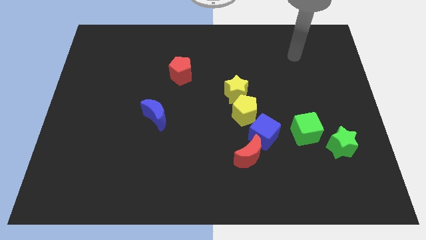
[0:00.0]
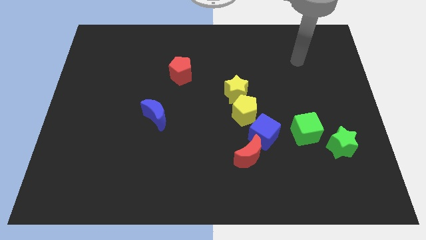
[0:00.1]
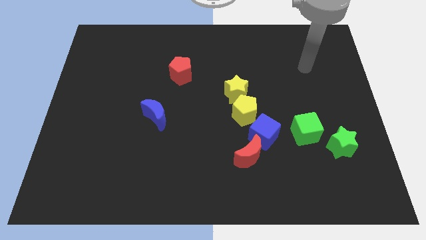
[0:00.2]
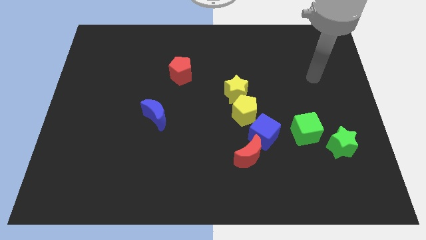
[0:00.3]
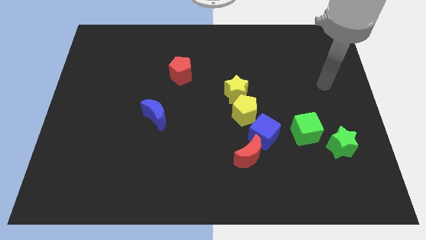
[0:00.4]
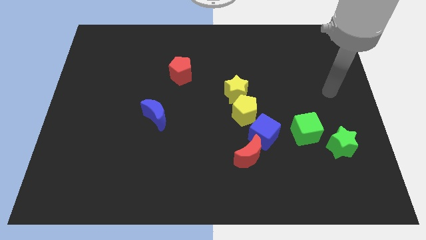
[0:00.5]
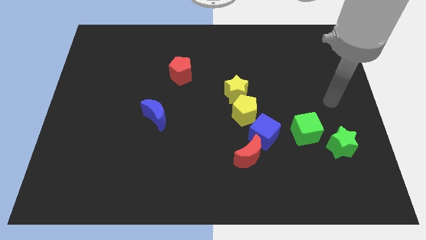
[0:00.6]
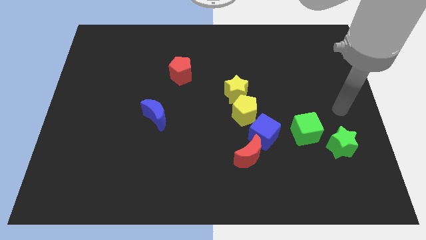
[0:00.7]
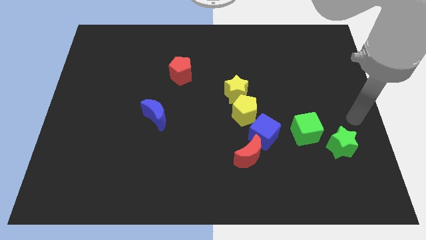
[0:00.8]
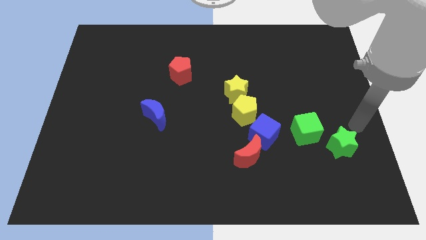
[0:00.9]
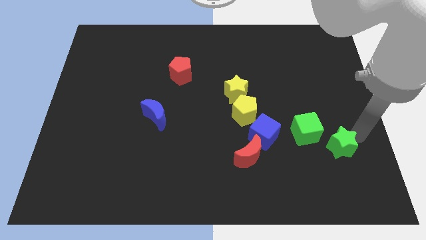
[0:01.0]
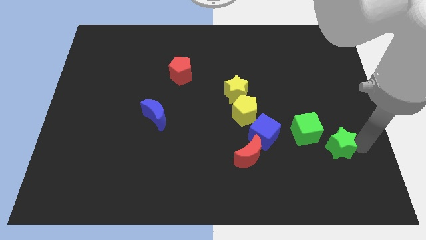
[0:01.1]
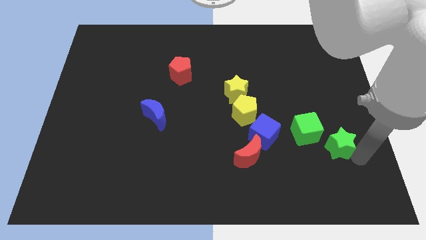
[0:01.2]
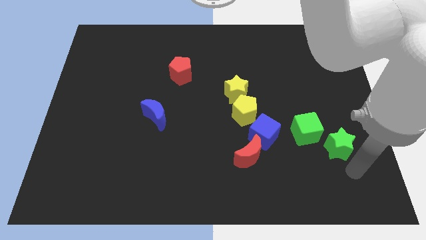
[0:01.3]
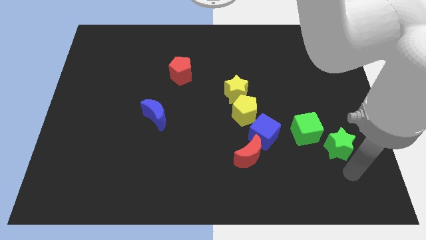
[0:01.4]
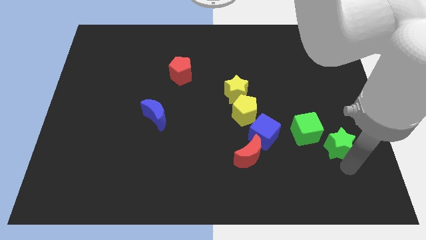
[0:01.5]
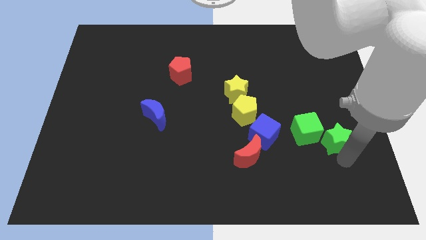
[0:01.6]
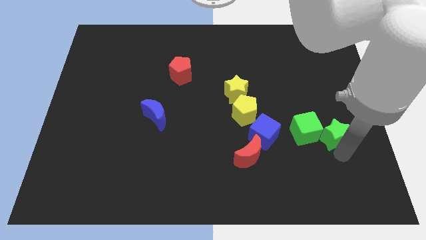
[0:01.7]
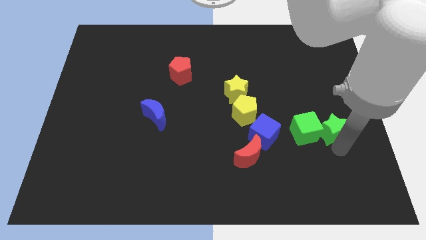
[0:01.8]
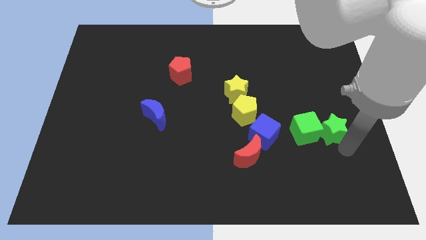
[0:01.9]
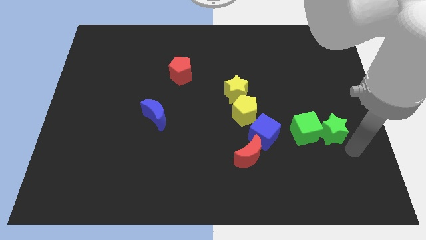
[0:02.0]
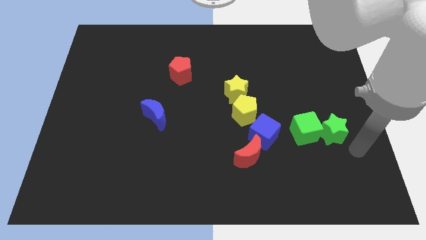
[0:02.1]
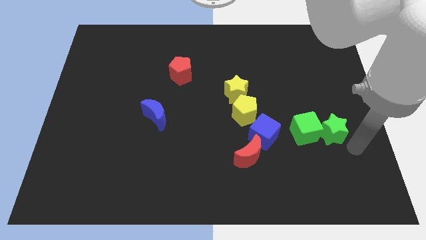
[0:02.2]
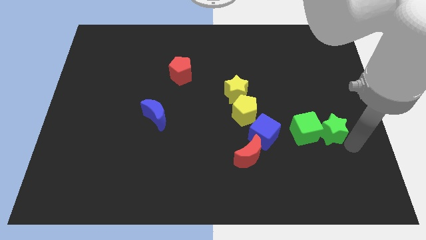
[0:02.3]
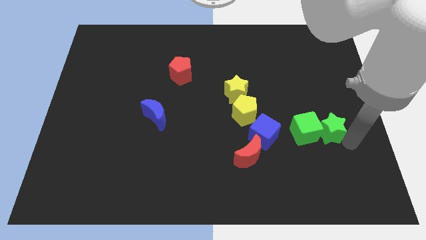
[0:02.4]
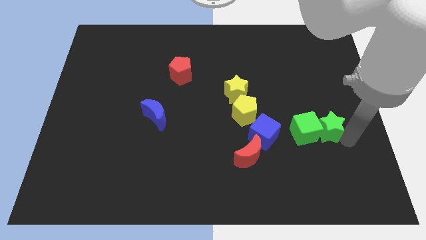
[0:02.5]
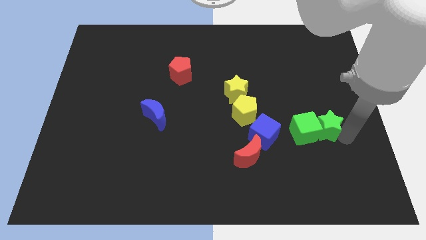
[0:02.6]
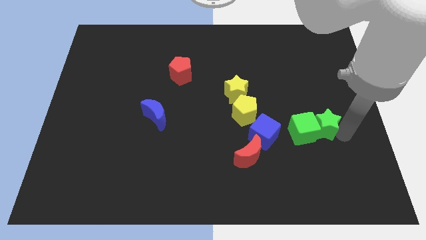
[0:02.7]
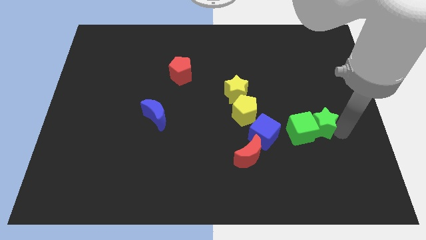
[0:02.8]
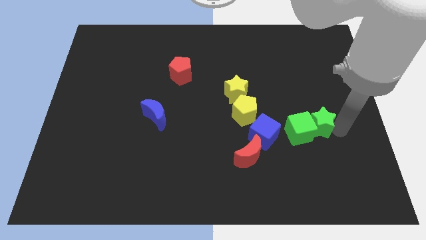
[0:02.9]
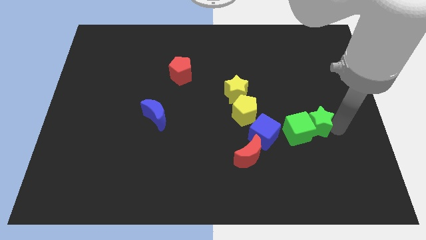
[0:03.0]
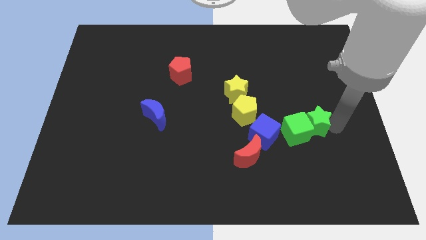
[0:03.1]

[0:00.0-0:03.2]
push the green star a little diagonally upwards and to the left

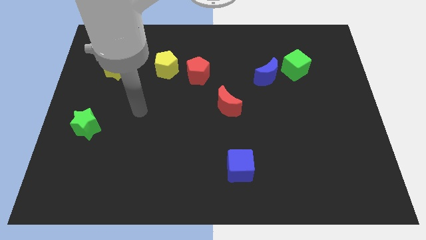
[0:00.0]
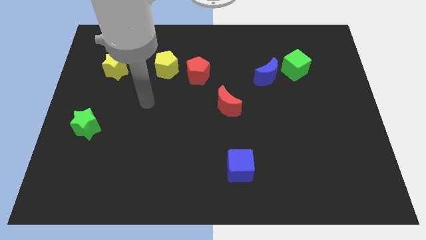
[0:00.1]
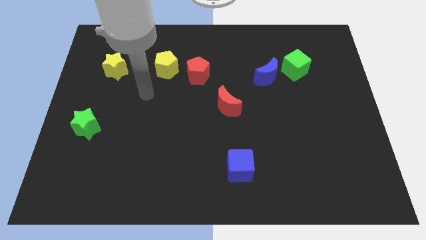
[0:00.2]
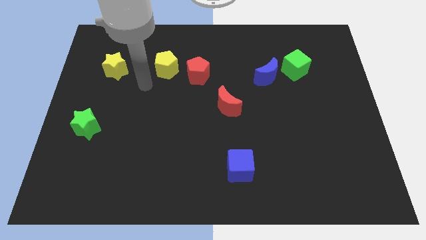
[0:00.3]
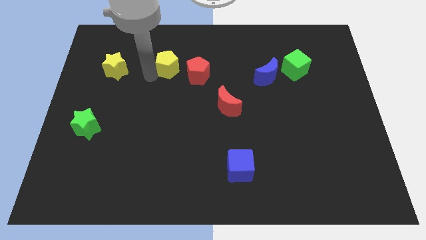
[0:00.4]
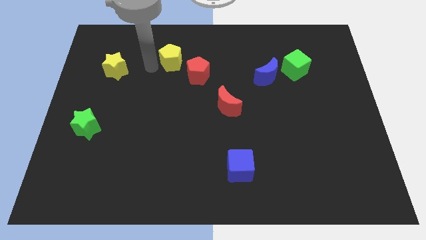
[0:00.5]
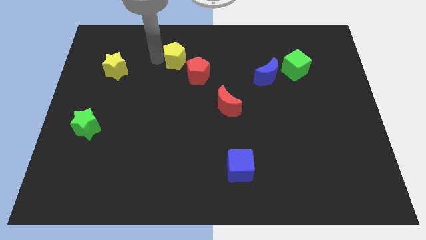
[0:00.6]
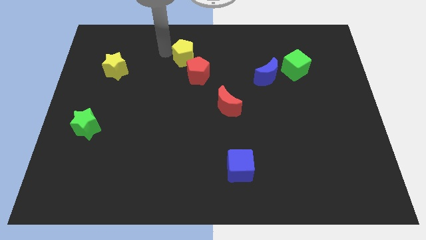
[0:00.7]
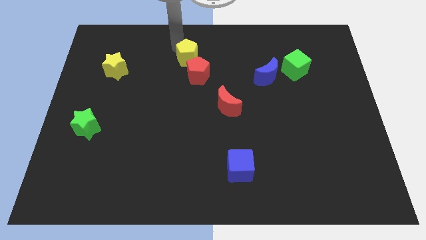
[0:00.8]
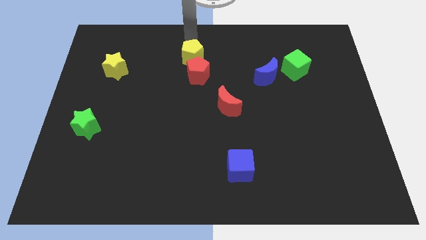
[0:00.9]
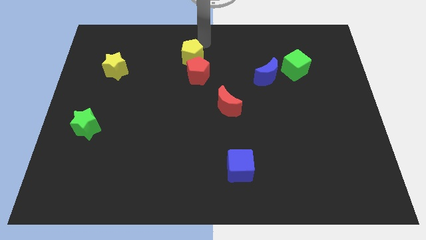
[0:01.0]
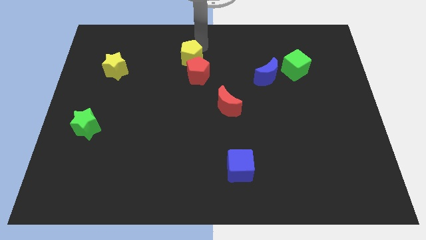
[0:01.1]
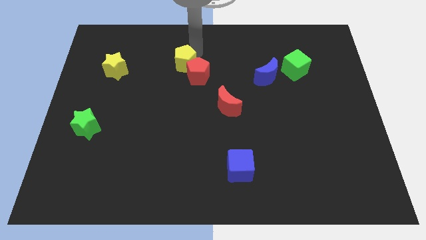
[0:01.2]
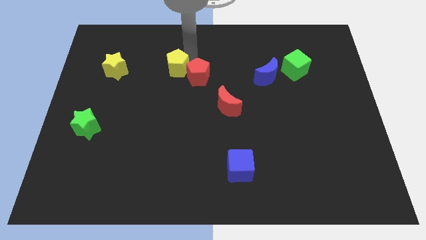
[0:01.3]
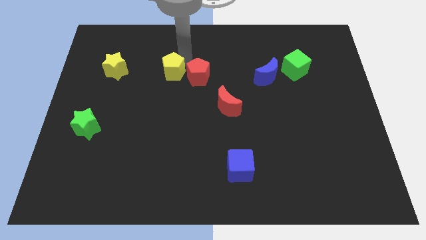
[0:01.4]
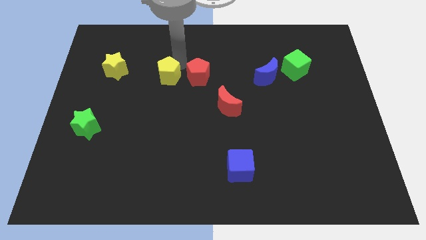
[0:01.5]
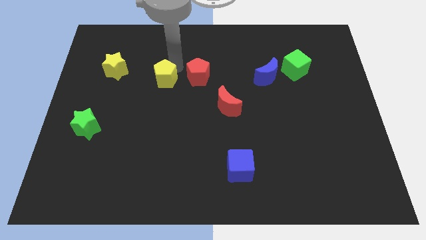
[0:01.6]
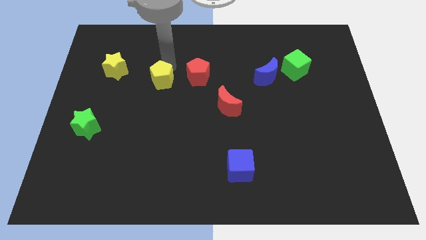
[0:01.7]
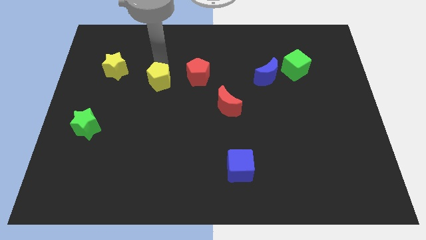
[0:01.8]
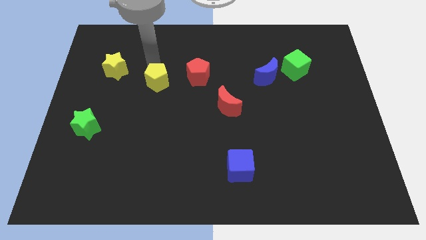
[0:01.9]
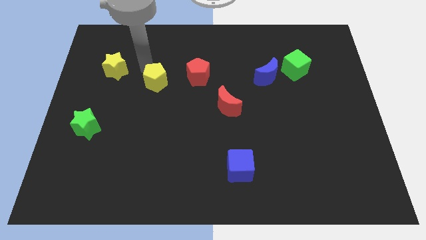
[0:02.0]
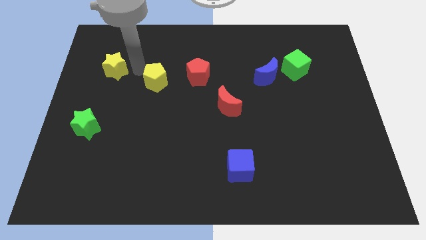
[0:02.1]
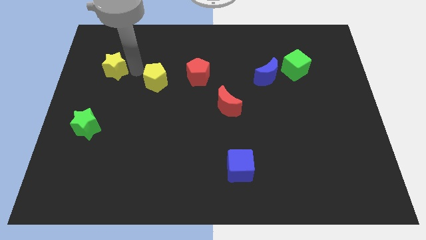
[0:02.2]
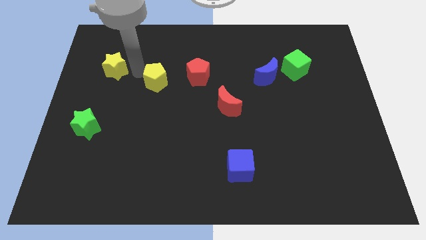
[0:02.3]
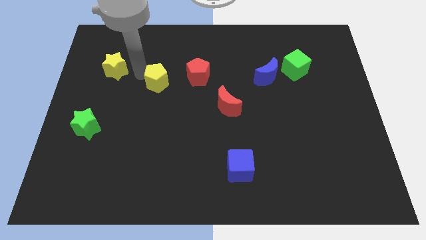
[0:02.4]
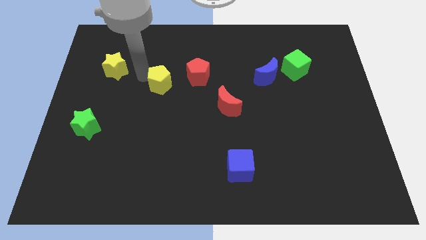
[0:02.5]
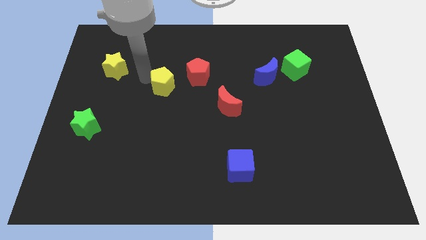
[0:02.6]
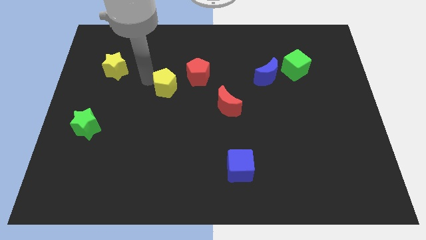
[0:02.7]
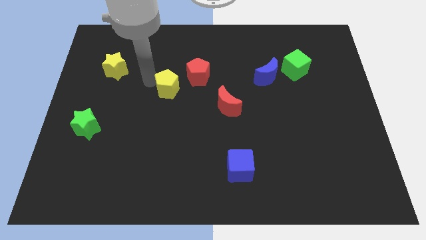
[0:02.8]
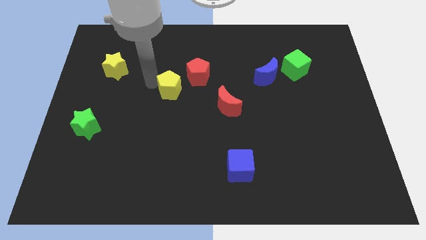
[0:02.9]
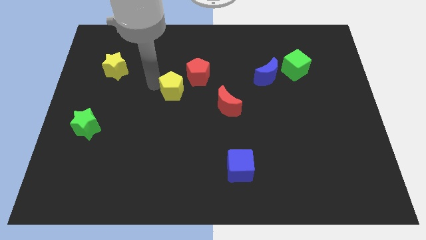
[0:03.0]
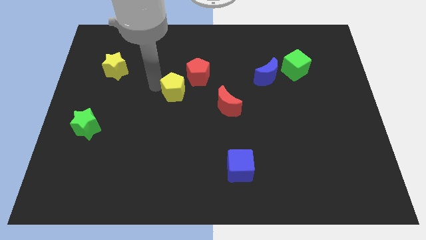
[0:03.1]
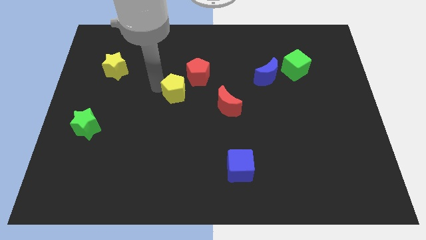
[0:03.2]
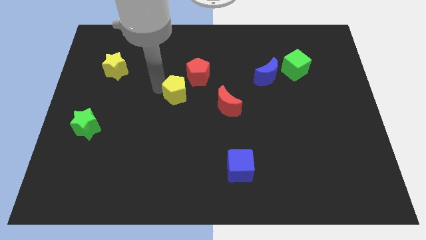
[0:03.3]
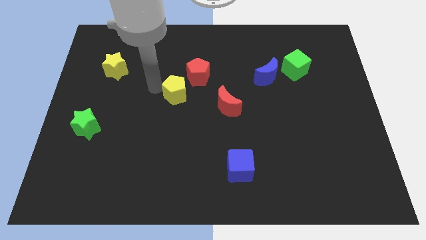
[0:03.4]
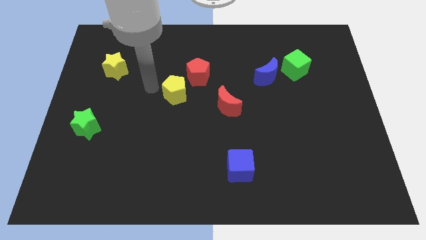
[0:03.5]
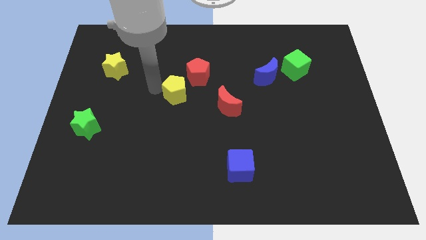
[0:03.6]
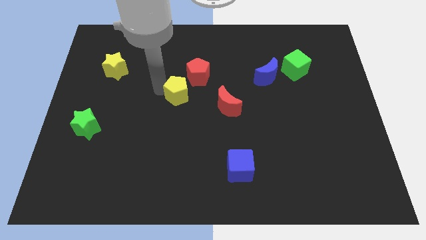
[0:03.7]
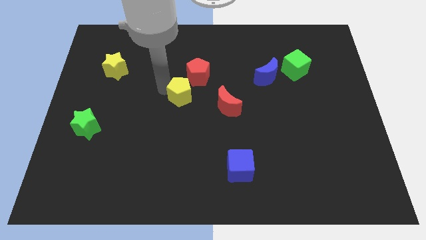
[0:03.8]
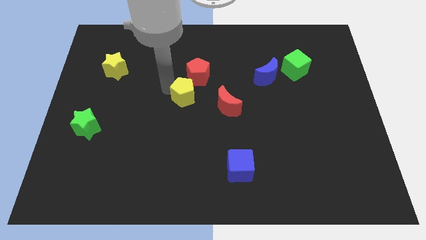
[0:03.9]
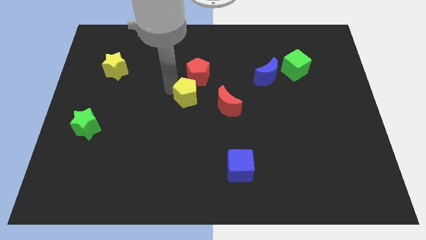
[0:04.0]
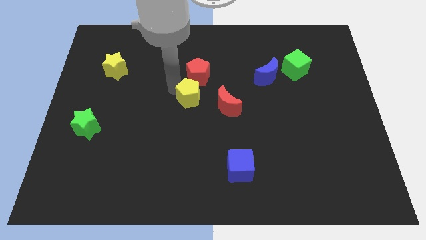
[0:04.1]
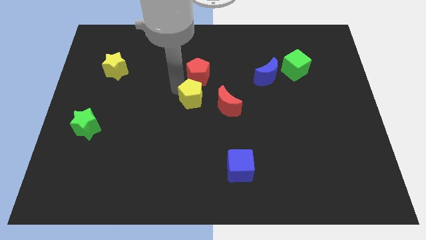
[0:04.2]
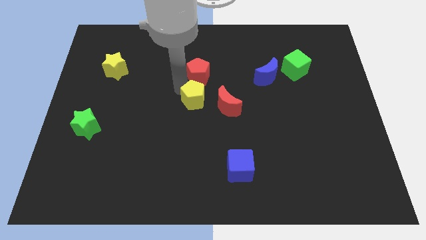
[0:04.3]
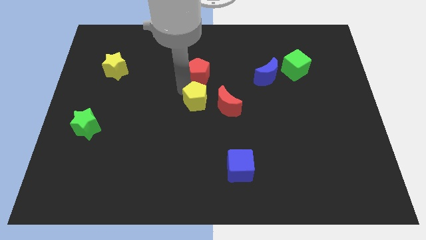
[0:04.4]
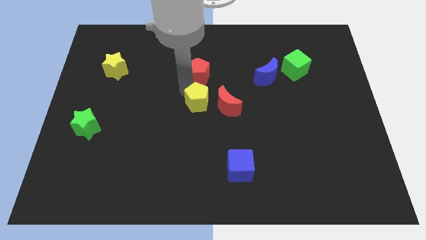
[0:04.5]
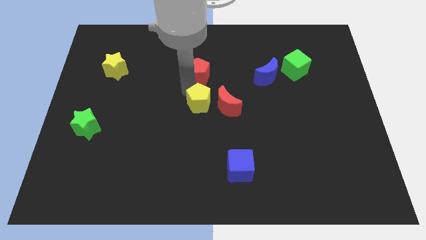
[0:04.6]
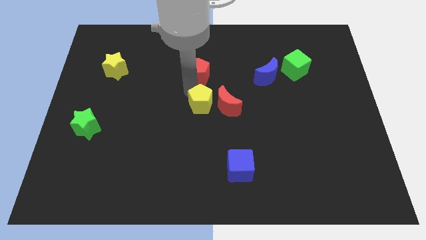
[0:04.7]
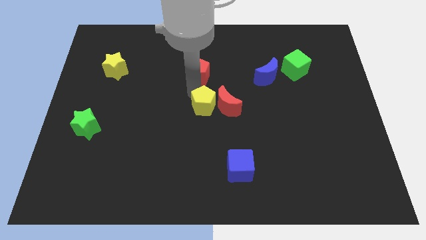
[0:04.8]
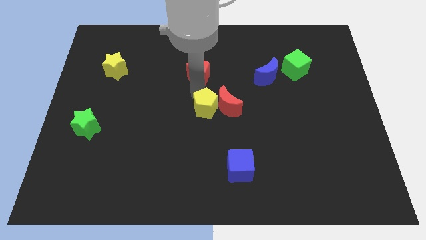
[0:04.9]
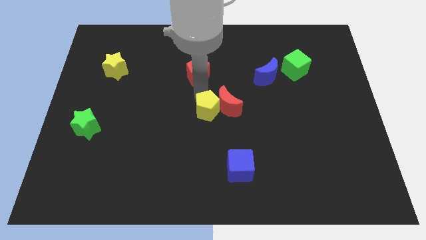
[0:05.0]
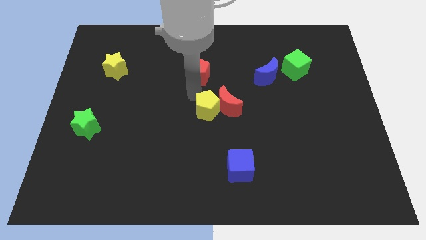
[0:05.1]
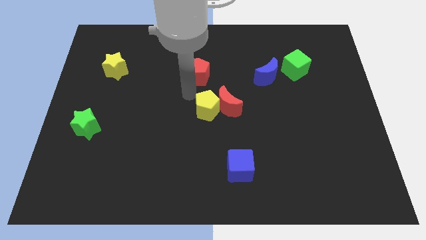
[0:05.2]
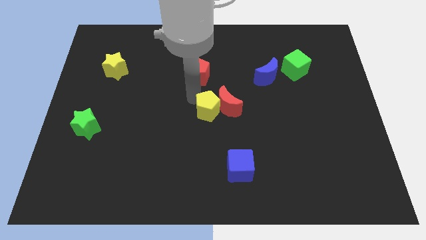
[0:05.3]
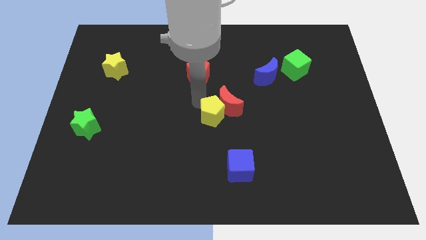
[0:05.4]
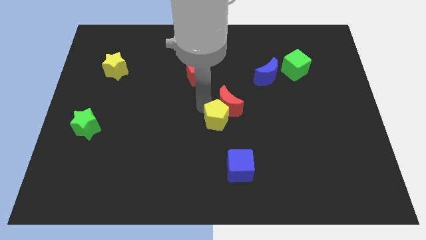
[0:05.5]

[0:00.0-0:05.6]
move the yellow pentagon diagonally down and right
